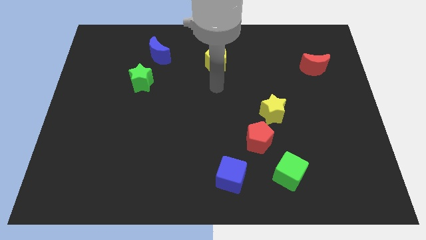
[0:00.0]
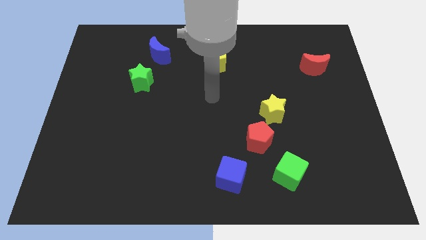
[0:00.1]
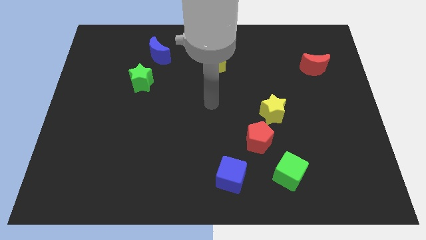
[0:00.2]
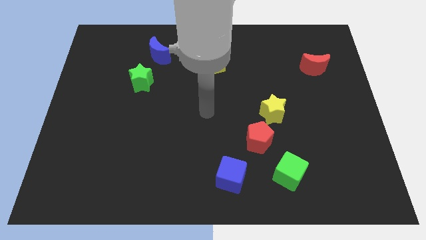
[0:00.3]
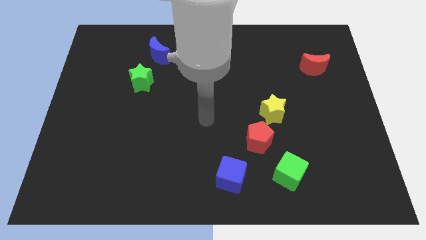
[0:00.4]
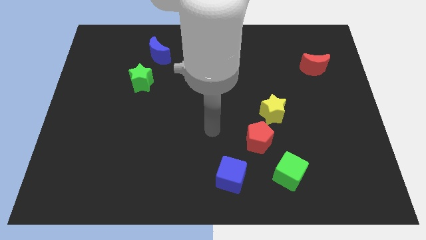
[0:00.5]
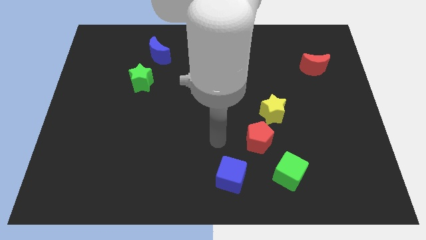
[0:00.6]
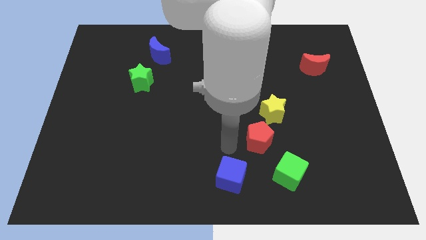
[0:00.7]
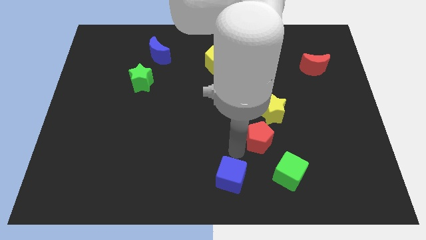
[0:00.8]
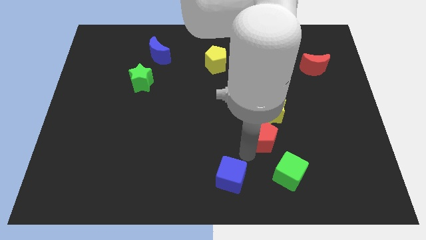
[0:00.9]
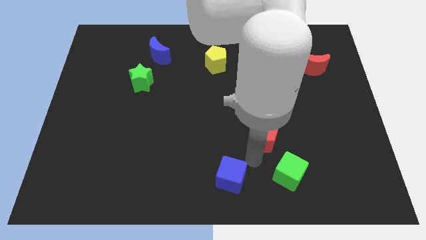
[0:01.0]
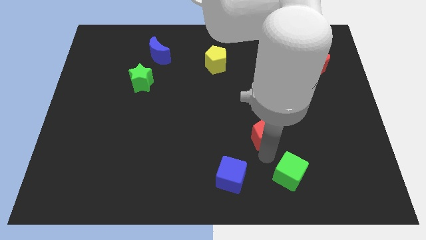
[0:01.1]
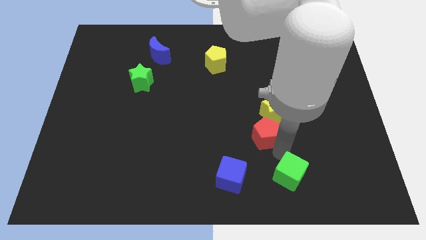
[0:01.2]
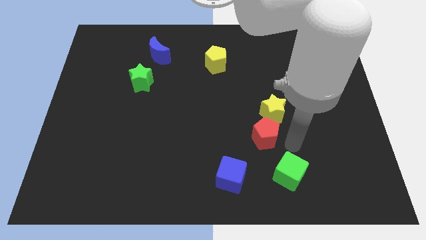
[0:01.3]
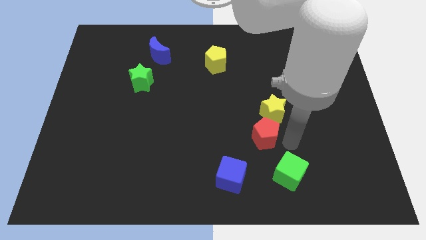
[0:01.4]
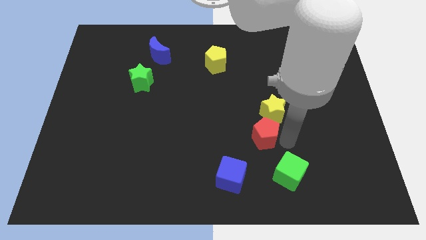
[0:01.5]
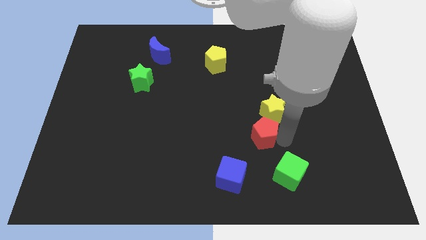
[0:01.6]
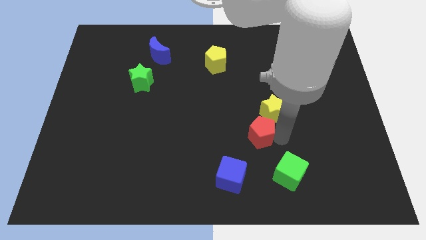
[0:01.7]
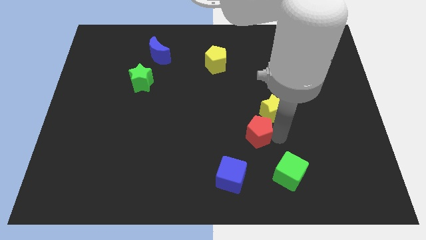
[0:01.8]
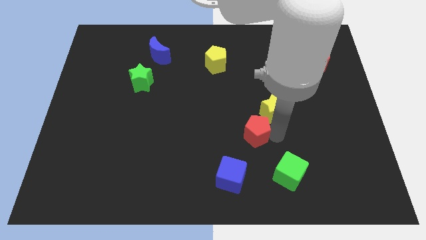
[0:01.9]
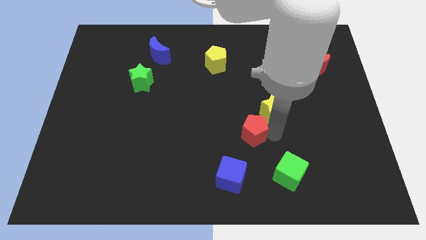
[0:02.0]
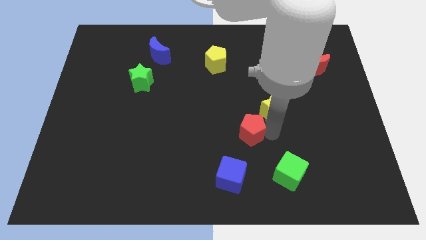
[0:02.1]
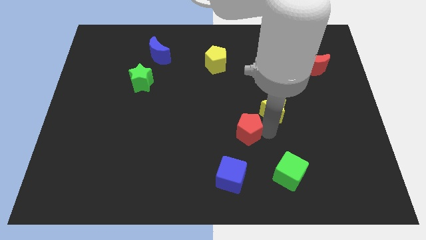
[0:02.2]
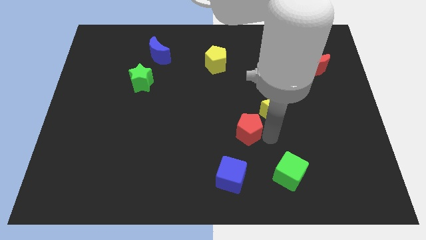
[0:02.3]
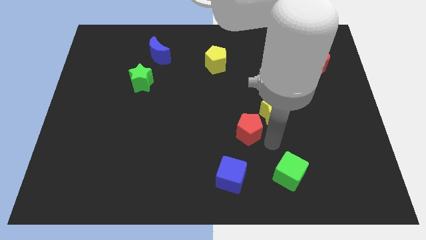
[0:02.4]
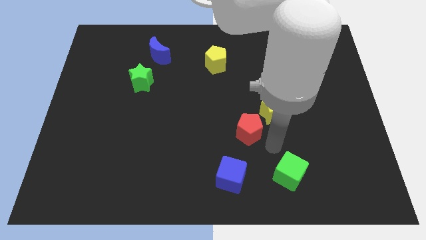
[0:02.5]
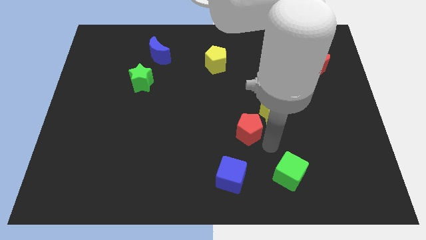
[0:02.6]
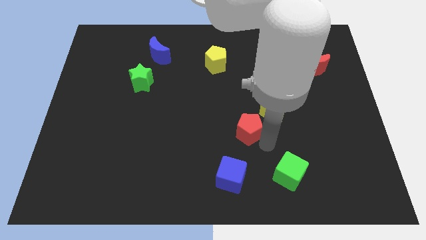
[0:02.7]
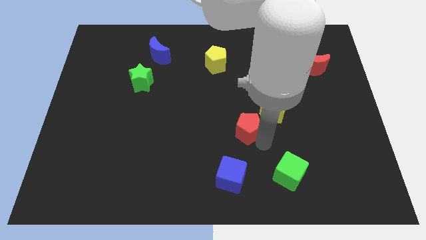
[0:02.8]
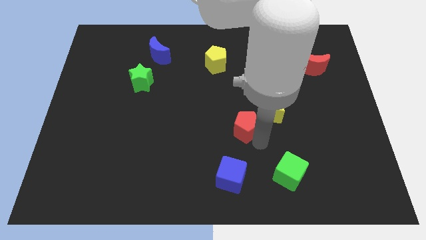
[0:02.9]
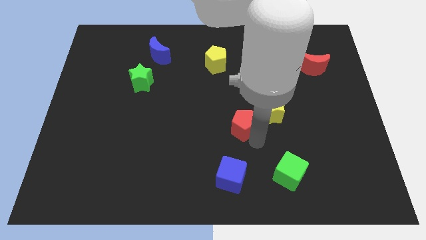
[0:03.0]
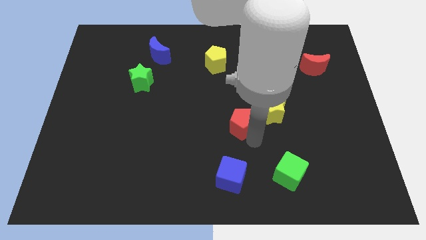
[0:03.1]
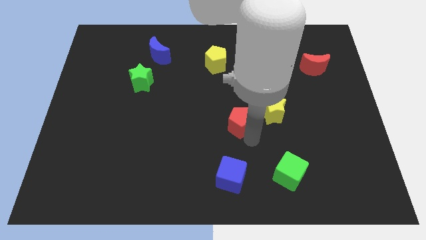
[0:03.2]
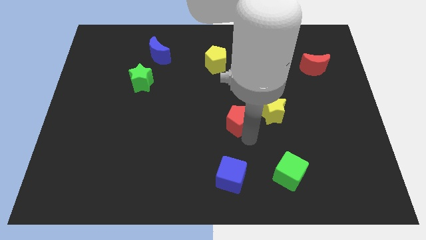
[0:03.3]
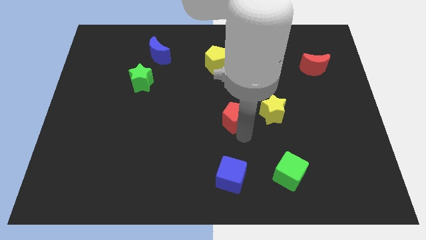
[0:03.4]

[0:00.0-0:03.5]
move the red pentagon upwards and then to the left a bit

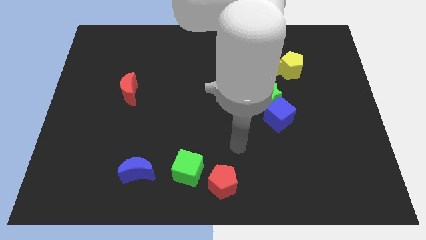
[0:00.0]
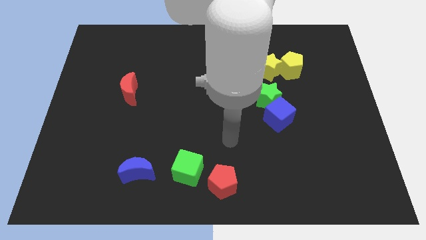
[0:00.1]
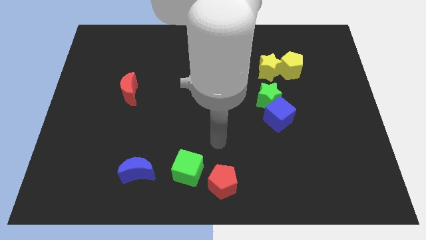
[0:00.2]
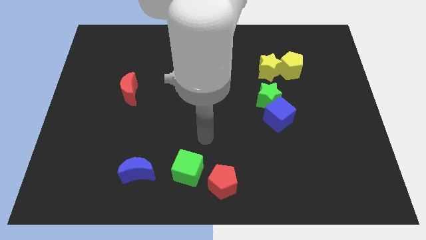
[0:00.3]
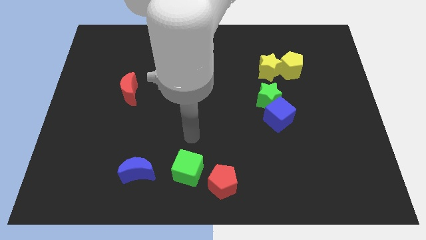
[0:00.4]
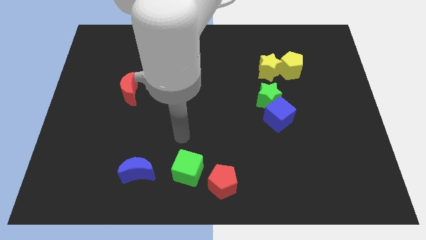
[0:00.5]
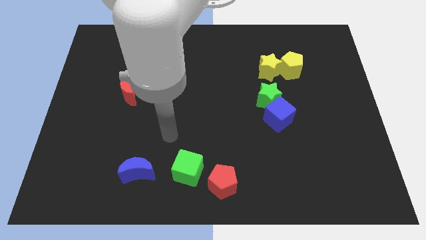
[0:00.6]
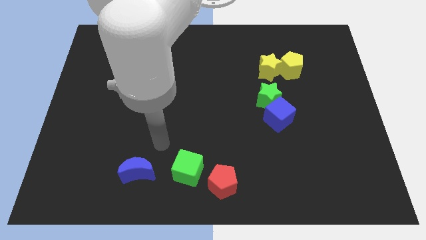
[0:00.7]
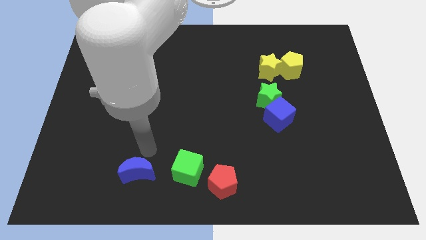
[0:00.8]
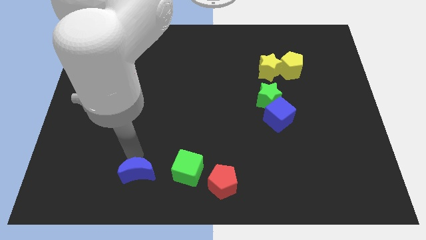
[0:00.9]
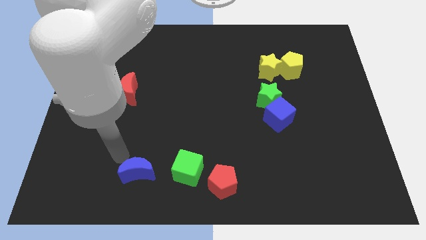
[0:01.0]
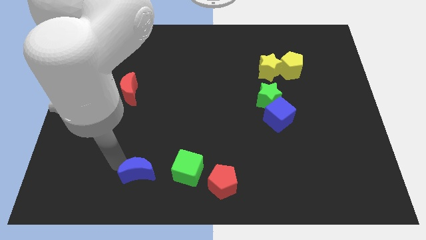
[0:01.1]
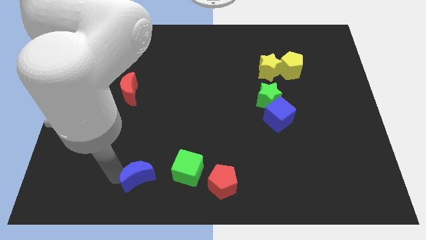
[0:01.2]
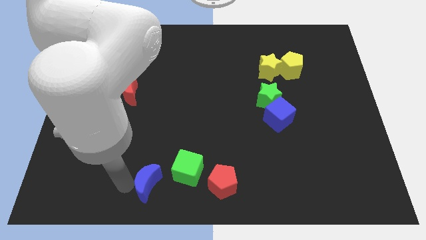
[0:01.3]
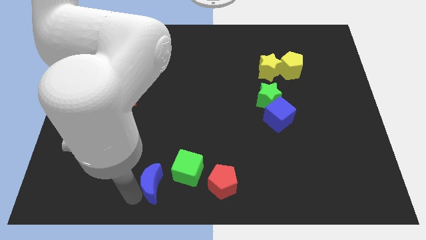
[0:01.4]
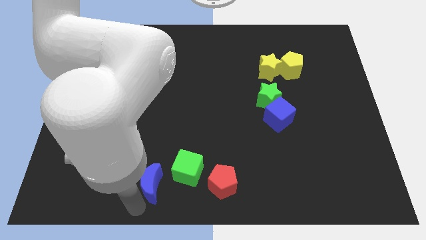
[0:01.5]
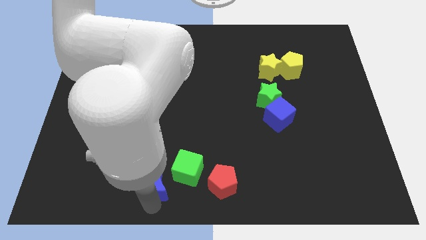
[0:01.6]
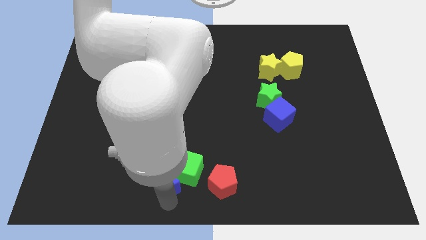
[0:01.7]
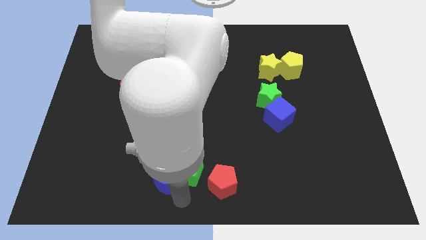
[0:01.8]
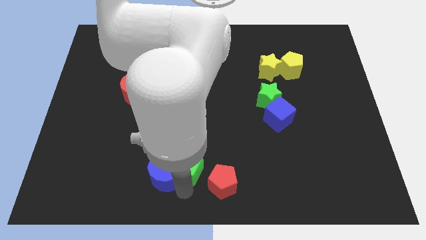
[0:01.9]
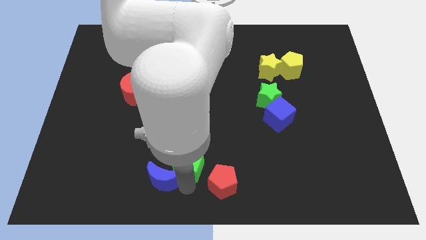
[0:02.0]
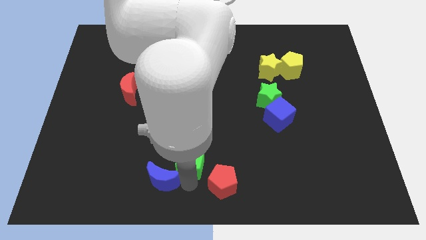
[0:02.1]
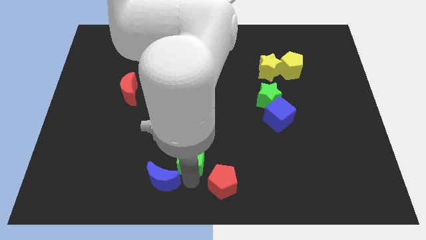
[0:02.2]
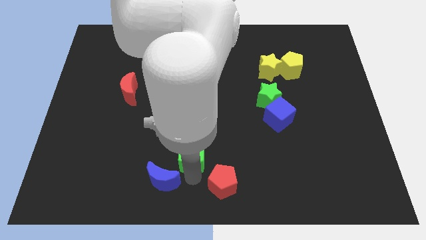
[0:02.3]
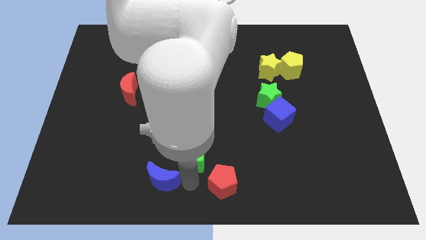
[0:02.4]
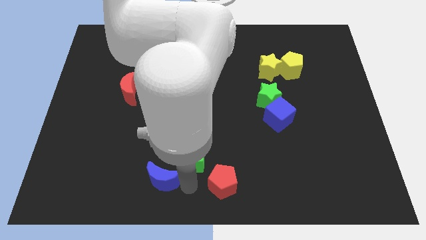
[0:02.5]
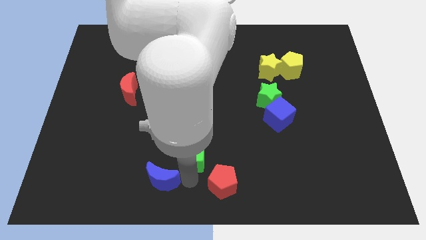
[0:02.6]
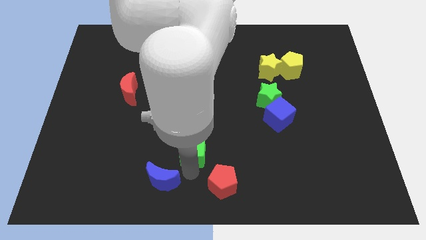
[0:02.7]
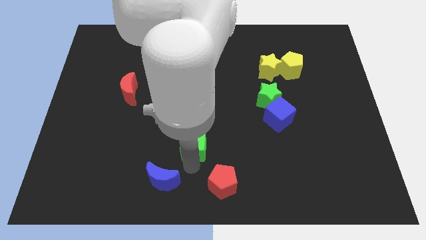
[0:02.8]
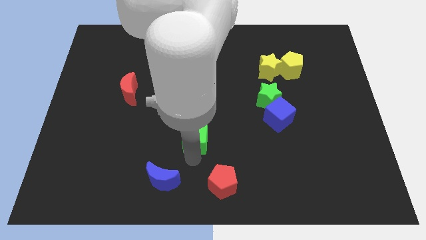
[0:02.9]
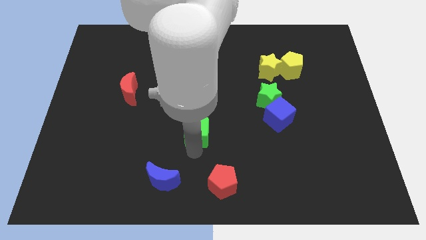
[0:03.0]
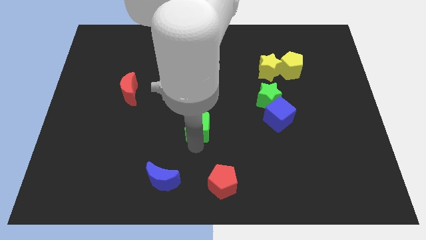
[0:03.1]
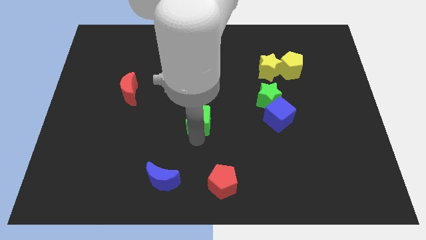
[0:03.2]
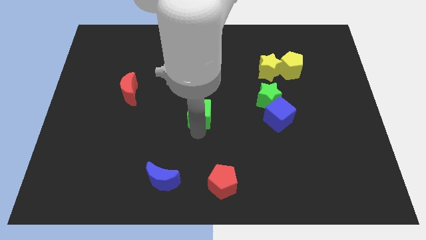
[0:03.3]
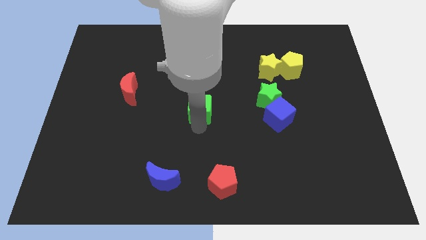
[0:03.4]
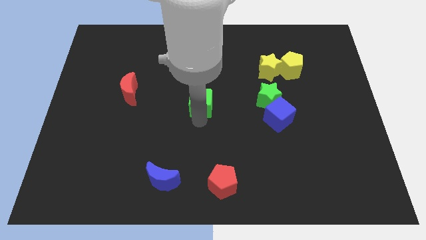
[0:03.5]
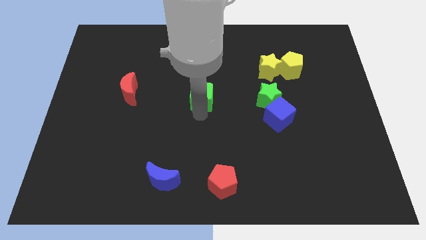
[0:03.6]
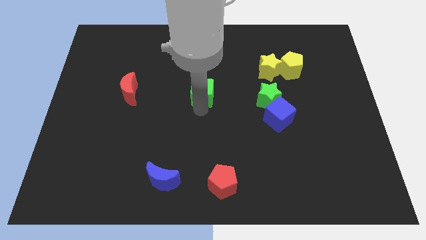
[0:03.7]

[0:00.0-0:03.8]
move the green cube up

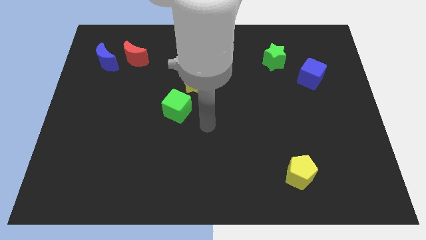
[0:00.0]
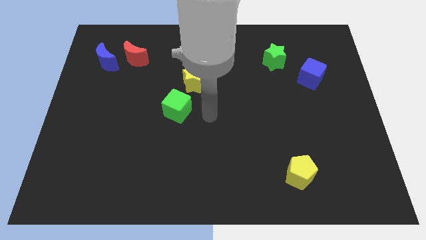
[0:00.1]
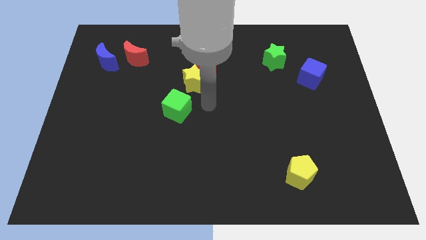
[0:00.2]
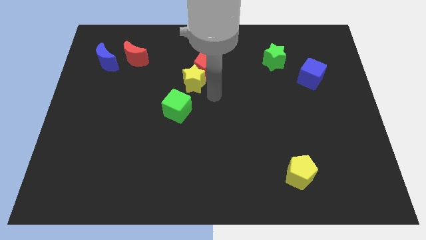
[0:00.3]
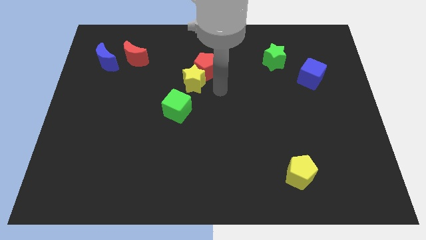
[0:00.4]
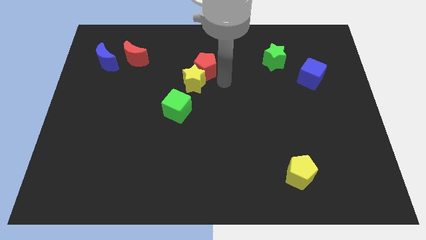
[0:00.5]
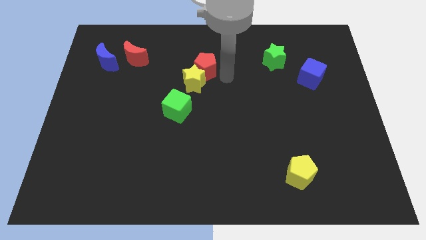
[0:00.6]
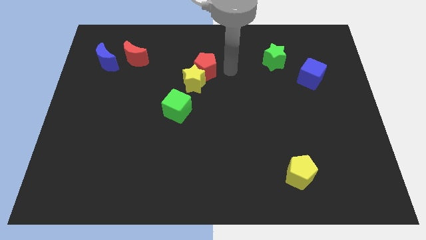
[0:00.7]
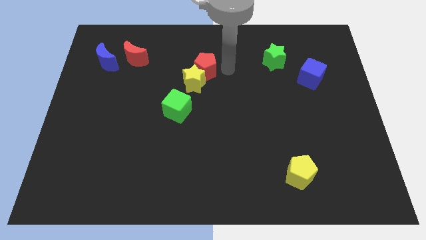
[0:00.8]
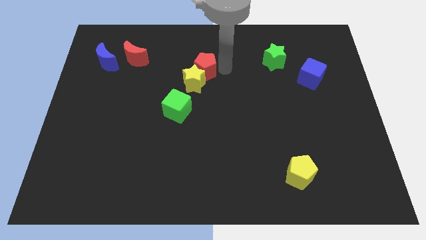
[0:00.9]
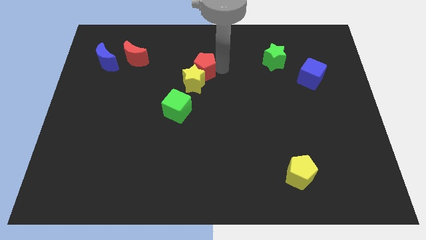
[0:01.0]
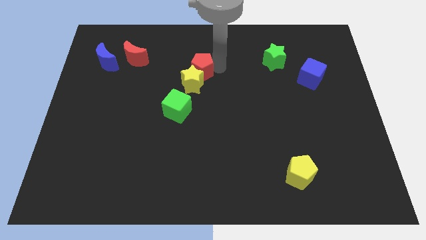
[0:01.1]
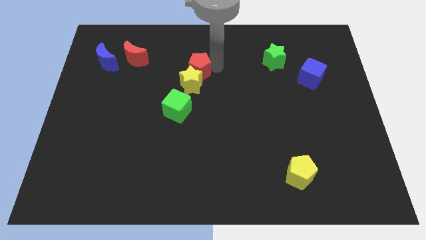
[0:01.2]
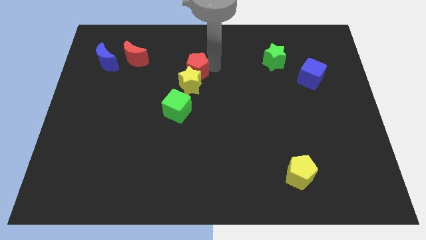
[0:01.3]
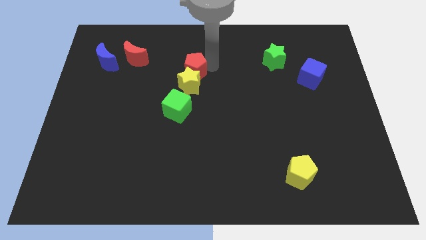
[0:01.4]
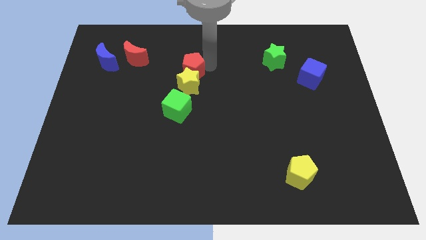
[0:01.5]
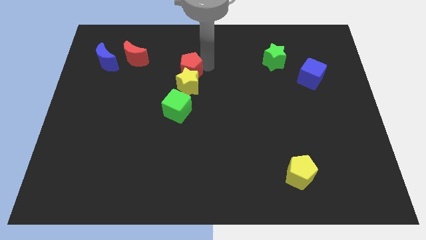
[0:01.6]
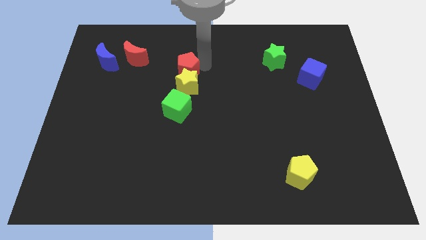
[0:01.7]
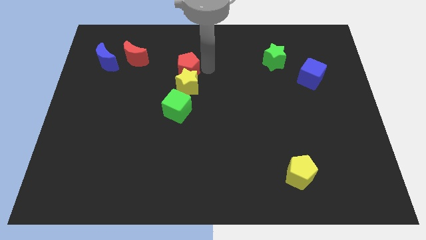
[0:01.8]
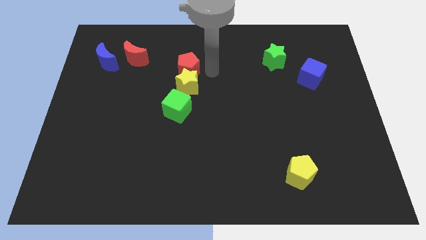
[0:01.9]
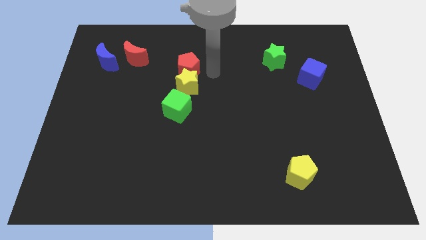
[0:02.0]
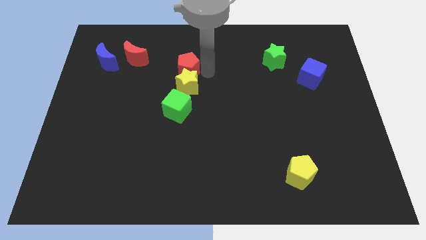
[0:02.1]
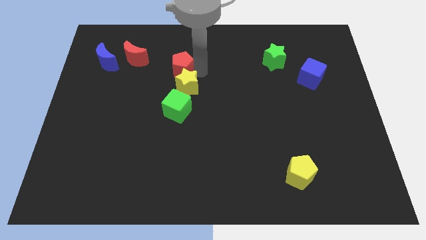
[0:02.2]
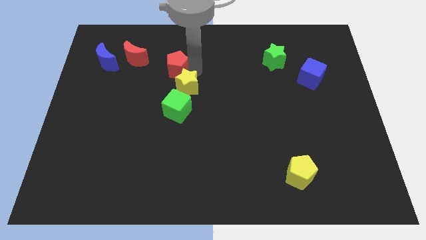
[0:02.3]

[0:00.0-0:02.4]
push the red pentagon a little bit to the left
